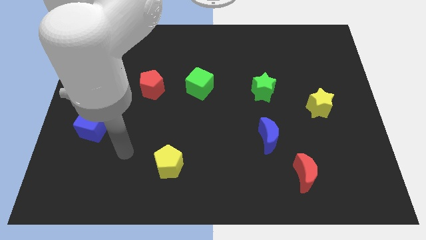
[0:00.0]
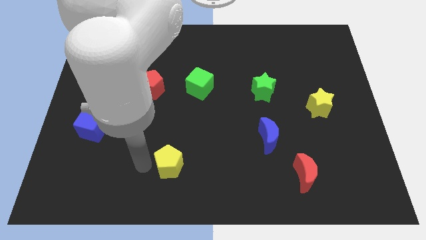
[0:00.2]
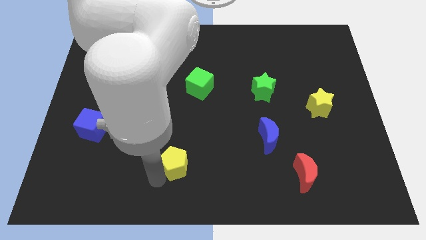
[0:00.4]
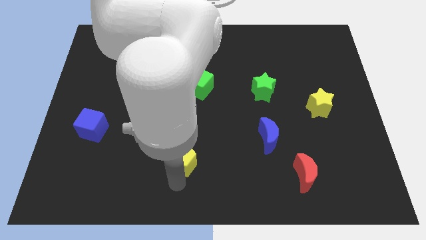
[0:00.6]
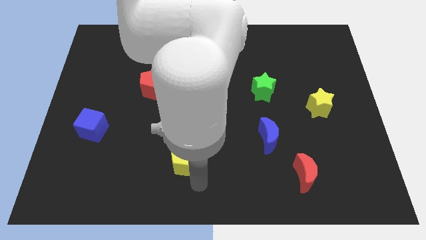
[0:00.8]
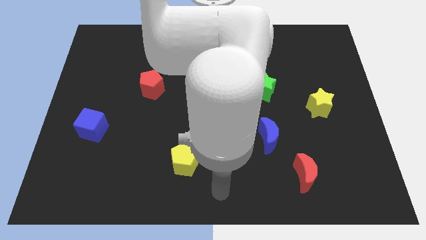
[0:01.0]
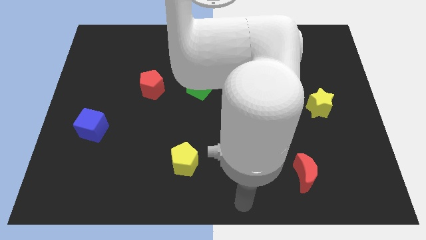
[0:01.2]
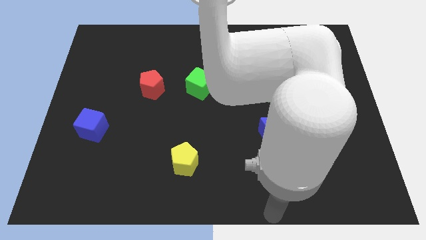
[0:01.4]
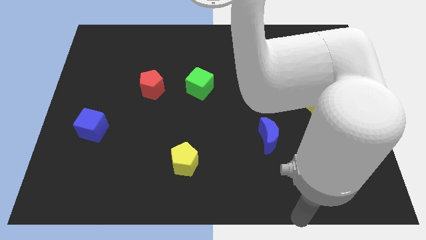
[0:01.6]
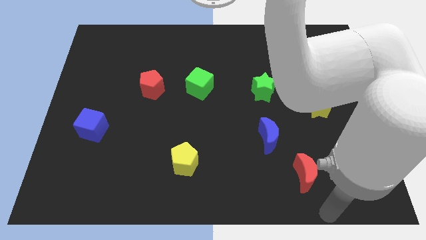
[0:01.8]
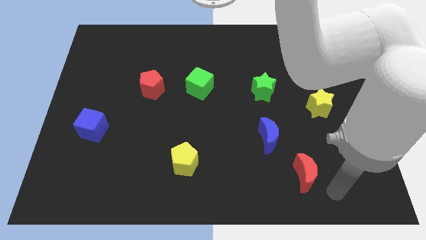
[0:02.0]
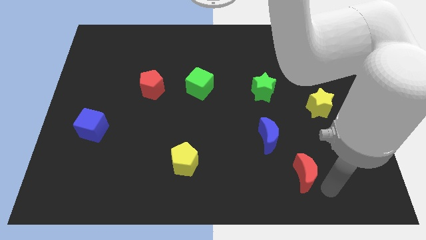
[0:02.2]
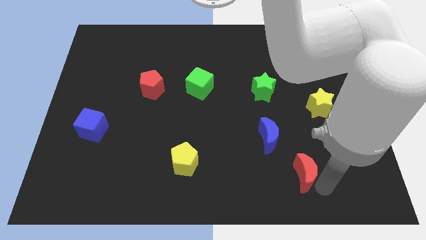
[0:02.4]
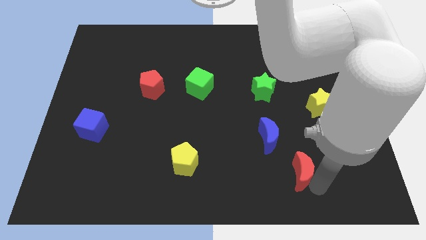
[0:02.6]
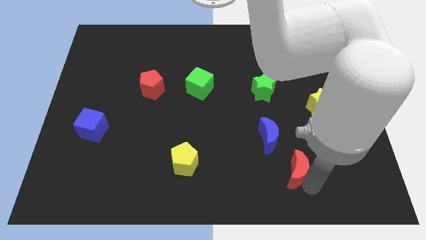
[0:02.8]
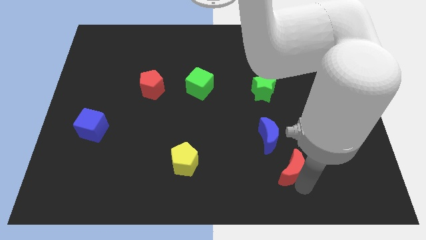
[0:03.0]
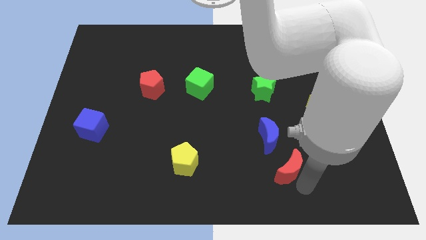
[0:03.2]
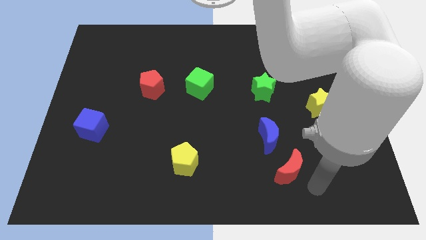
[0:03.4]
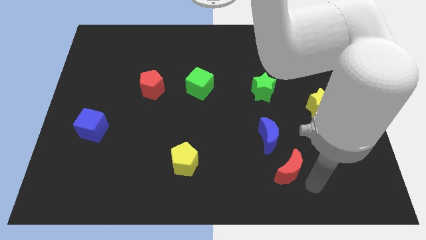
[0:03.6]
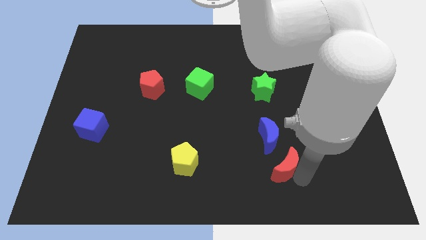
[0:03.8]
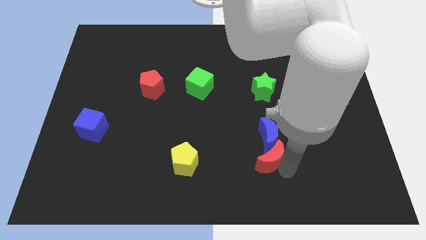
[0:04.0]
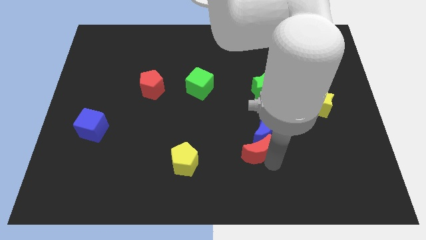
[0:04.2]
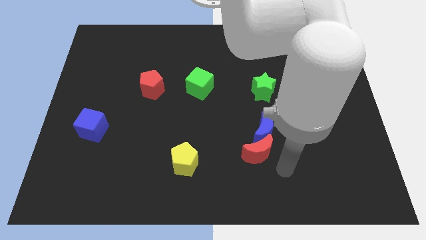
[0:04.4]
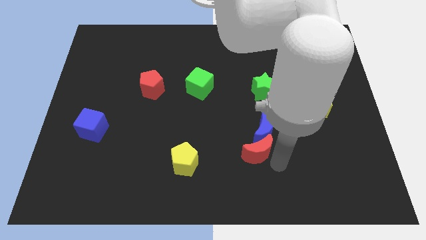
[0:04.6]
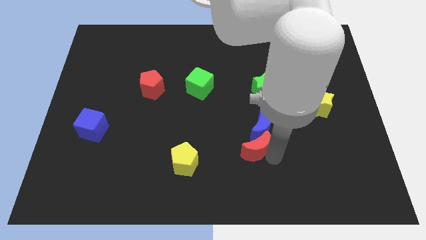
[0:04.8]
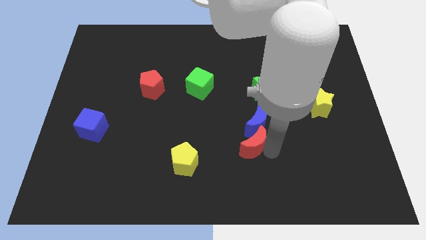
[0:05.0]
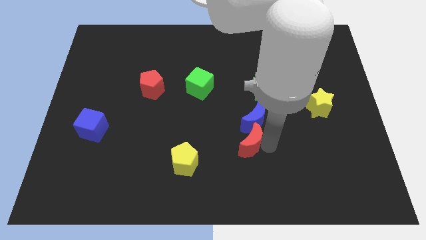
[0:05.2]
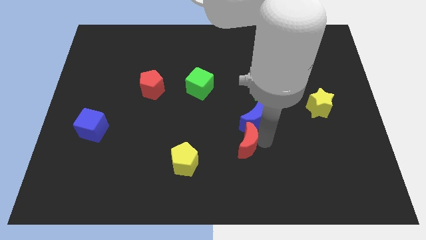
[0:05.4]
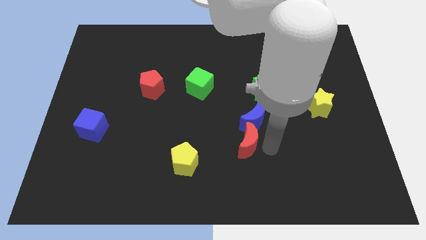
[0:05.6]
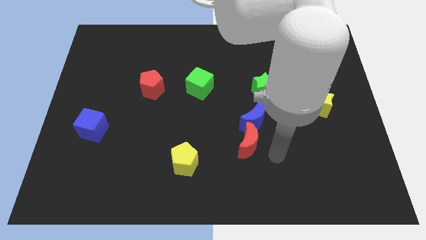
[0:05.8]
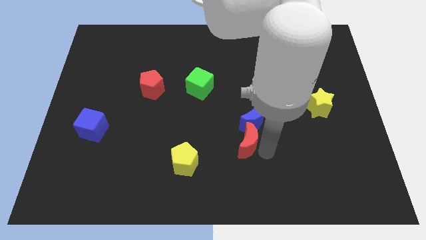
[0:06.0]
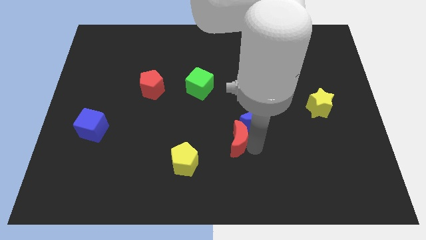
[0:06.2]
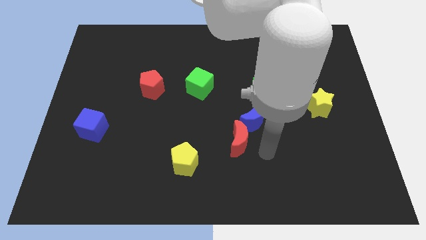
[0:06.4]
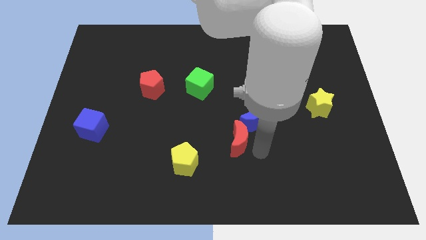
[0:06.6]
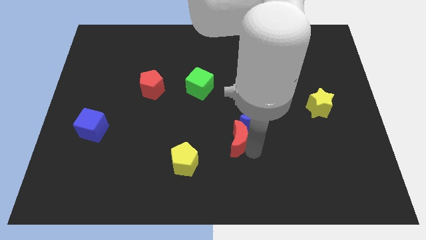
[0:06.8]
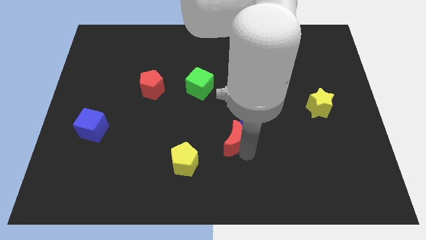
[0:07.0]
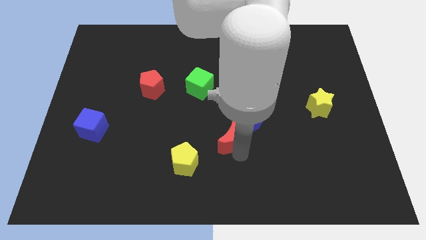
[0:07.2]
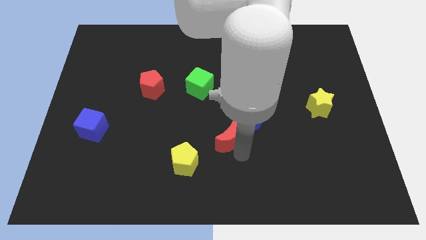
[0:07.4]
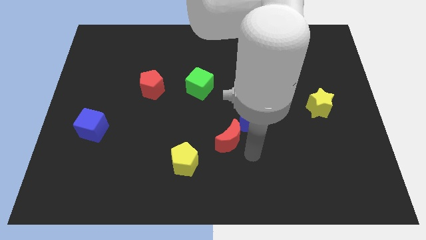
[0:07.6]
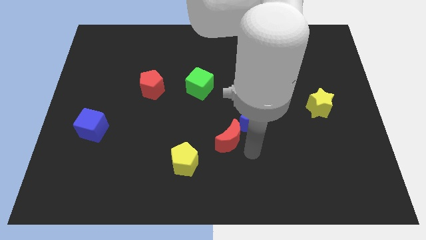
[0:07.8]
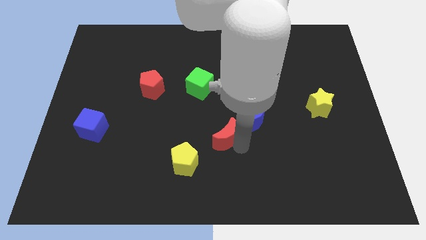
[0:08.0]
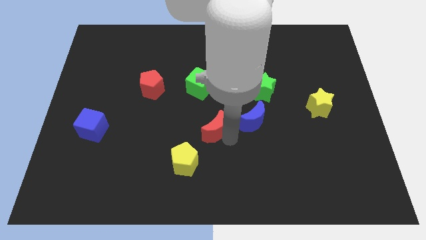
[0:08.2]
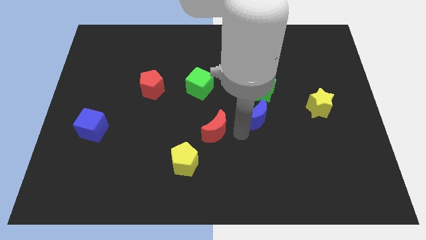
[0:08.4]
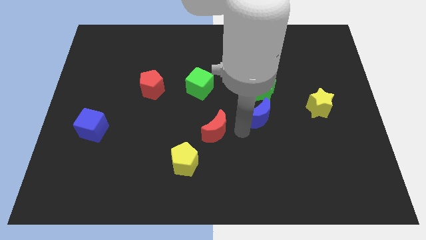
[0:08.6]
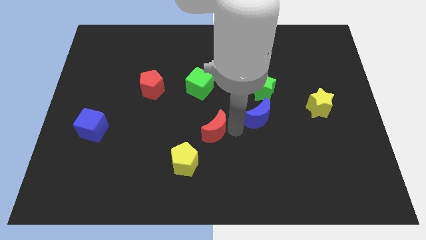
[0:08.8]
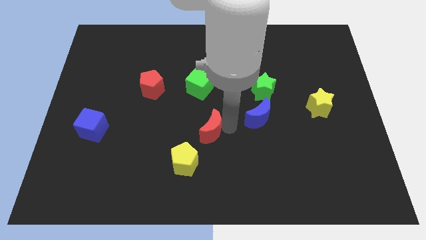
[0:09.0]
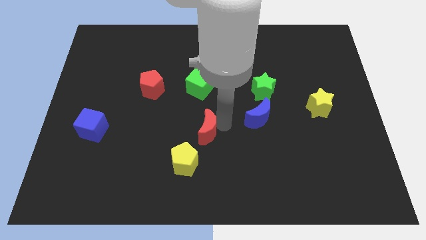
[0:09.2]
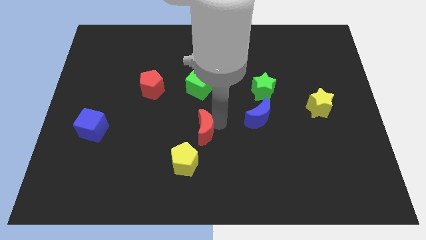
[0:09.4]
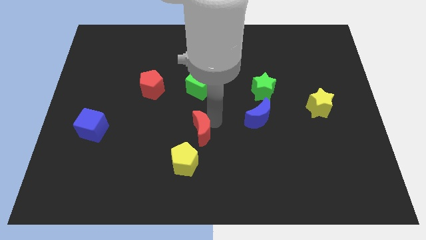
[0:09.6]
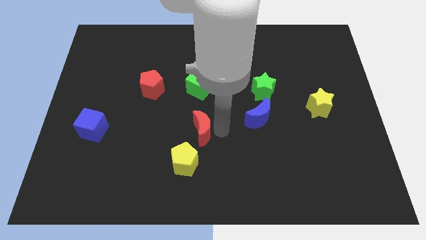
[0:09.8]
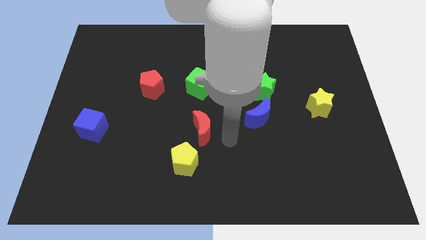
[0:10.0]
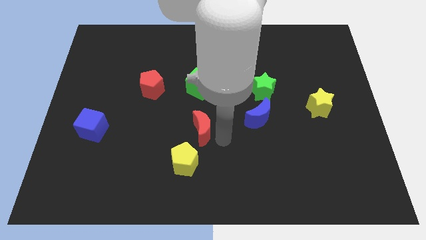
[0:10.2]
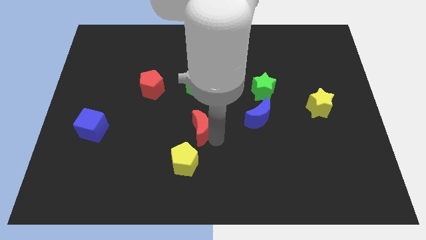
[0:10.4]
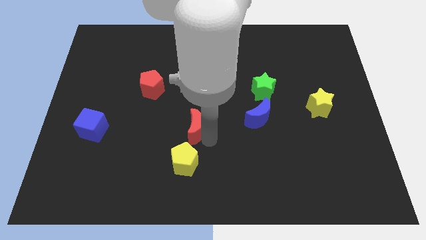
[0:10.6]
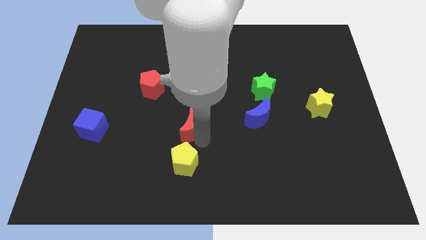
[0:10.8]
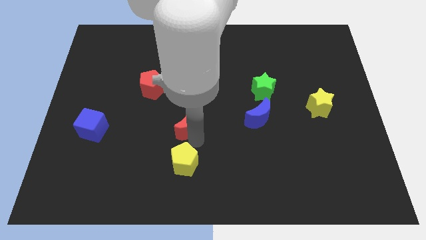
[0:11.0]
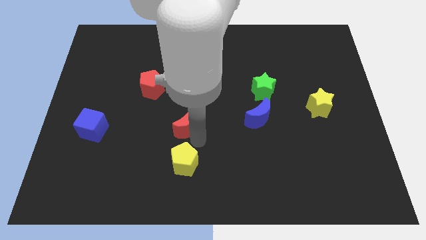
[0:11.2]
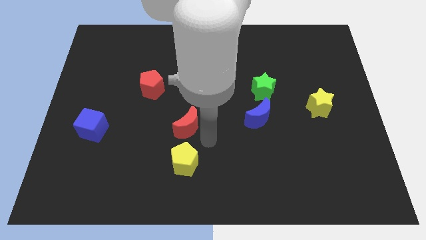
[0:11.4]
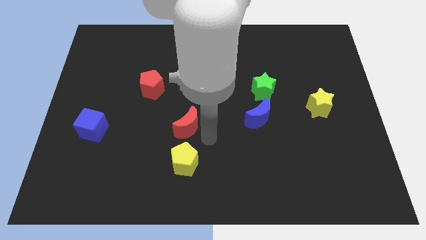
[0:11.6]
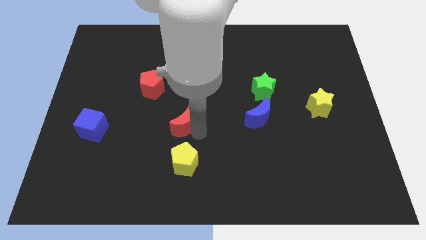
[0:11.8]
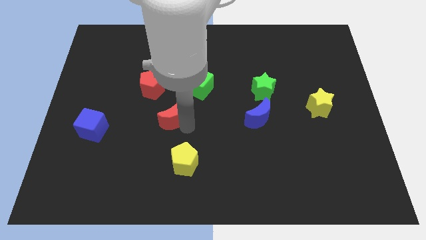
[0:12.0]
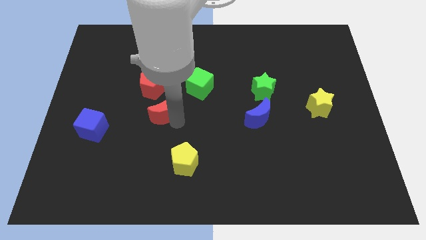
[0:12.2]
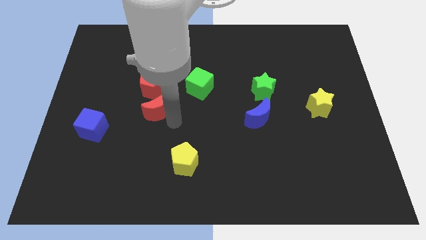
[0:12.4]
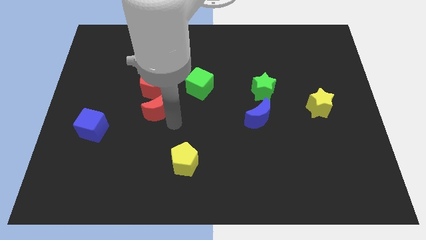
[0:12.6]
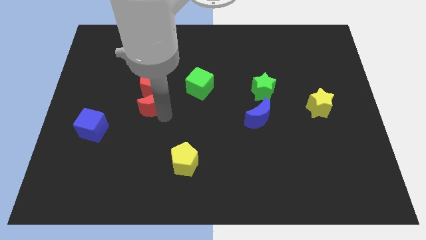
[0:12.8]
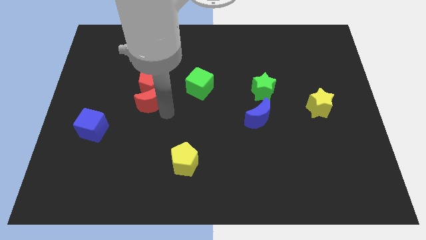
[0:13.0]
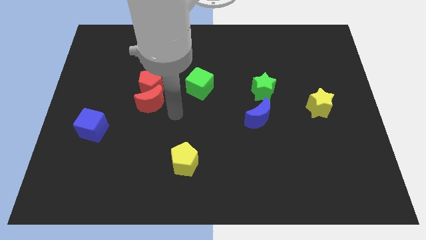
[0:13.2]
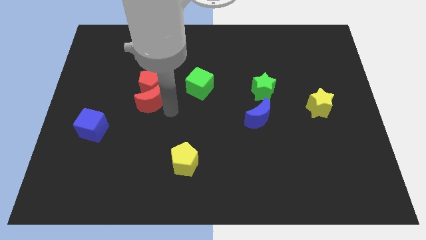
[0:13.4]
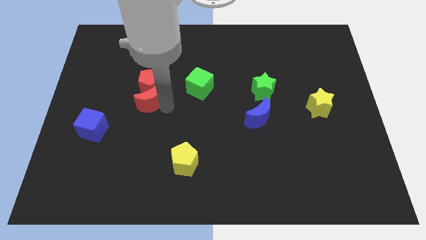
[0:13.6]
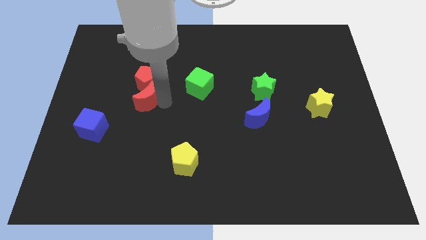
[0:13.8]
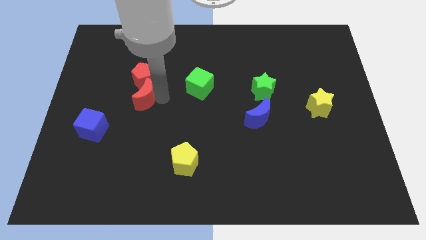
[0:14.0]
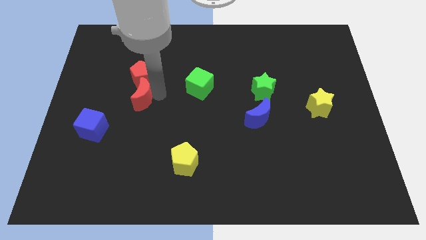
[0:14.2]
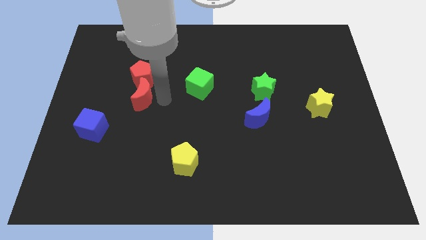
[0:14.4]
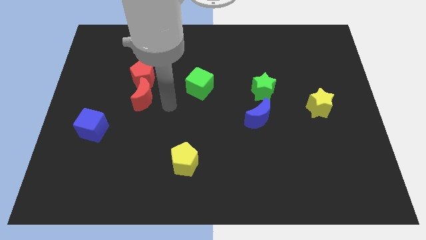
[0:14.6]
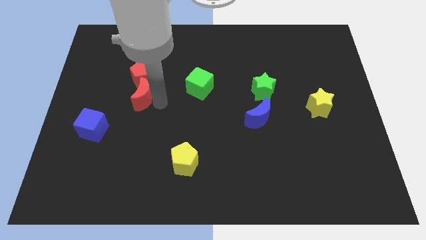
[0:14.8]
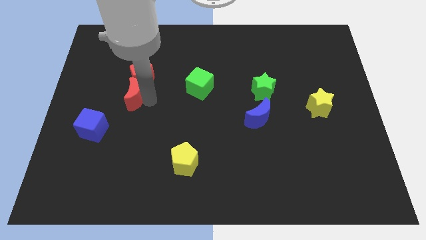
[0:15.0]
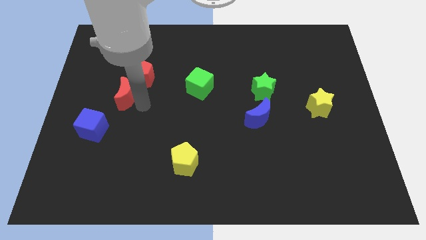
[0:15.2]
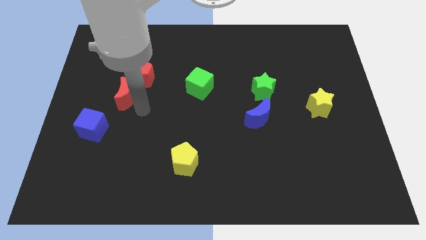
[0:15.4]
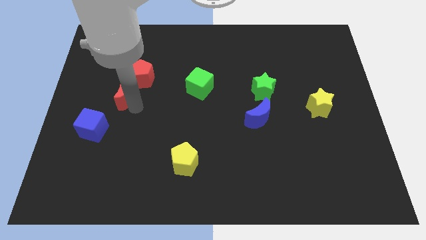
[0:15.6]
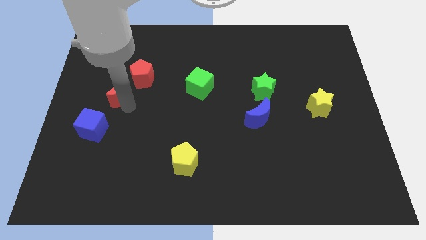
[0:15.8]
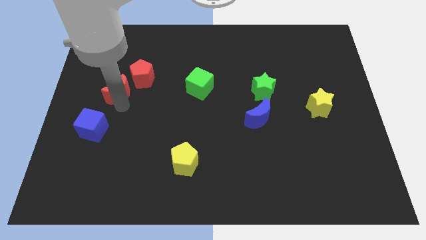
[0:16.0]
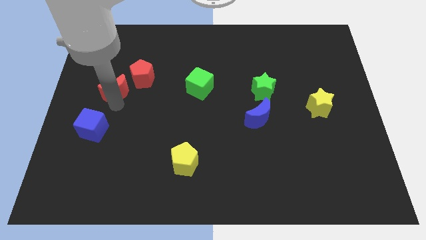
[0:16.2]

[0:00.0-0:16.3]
put the red moon just left of the red pentagon
